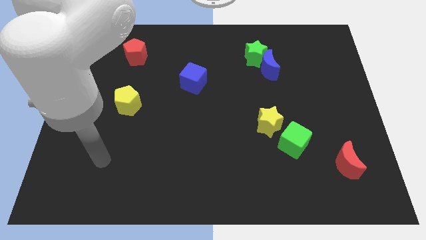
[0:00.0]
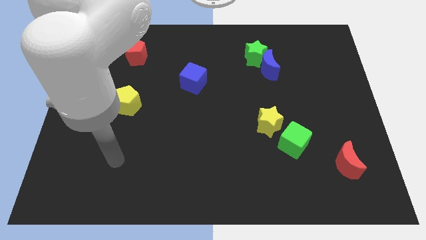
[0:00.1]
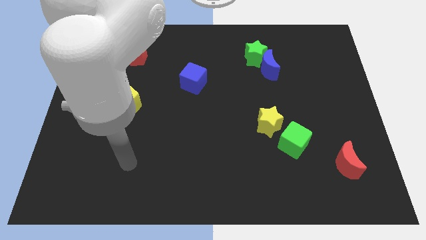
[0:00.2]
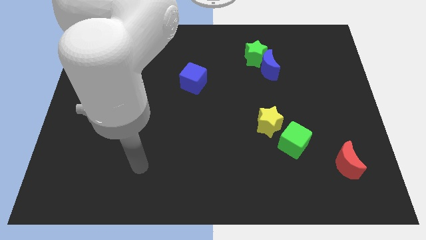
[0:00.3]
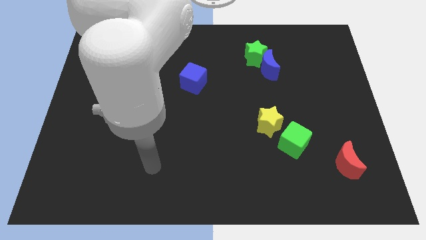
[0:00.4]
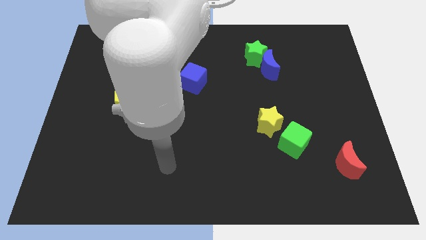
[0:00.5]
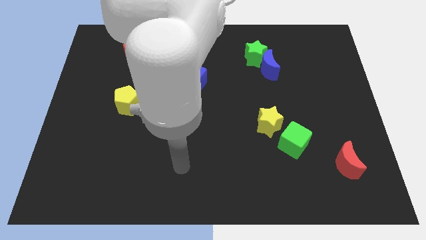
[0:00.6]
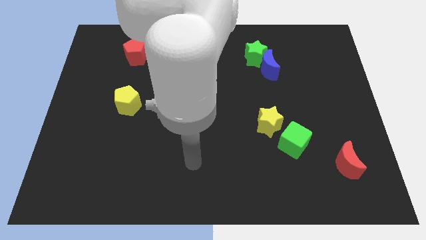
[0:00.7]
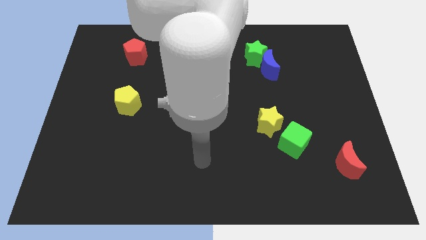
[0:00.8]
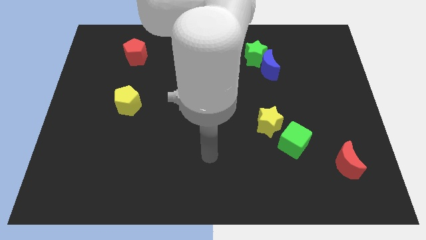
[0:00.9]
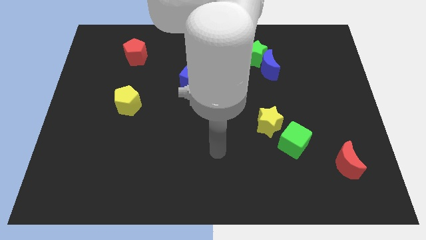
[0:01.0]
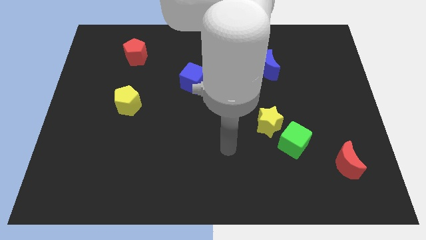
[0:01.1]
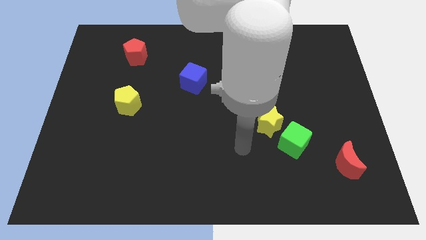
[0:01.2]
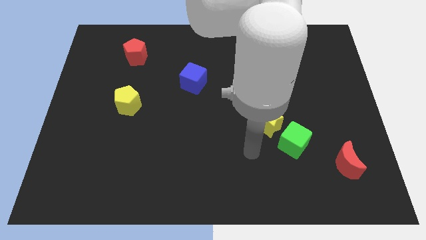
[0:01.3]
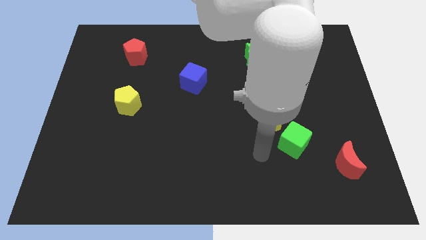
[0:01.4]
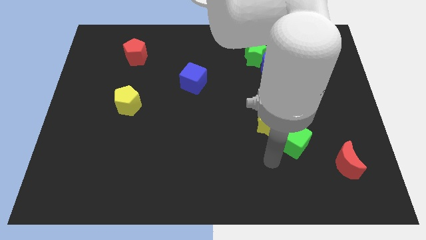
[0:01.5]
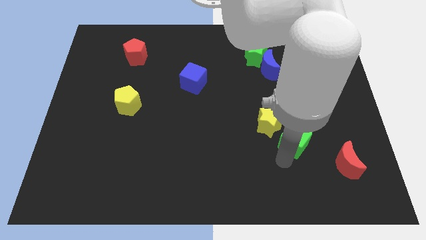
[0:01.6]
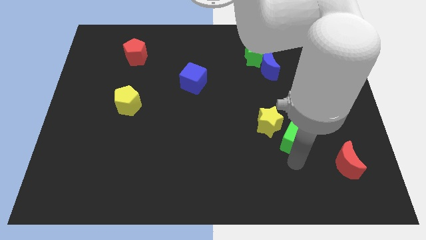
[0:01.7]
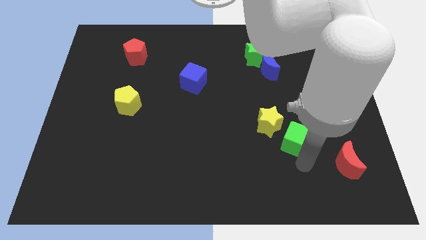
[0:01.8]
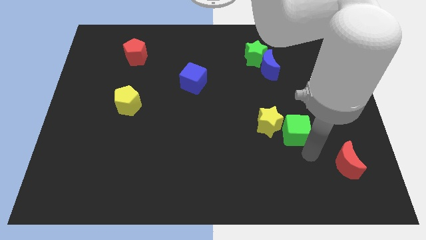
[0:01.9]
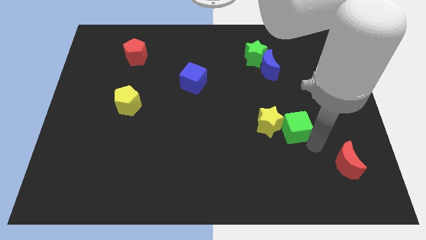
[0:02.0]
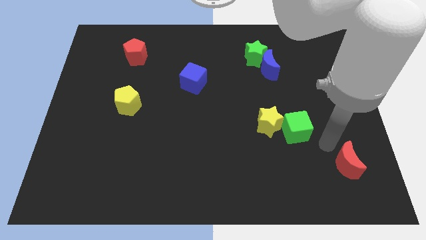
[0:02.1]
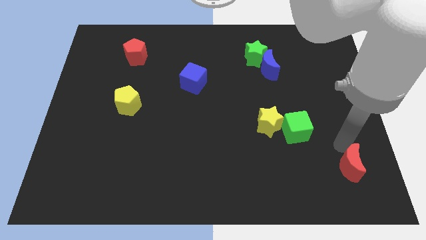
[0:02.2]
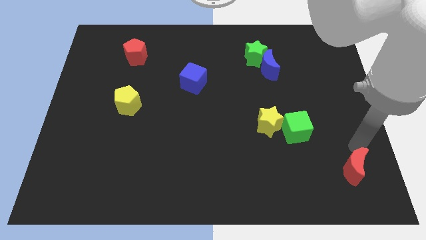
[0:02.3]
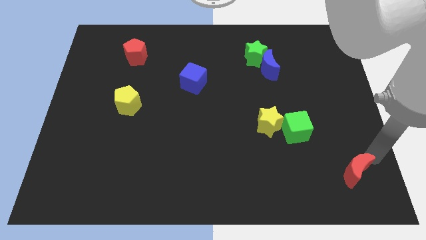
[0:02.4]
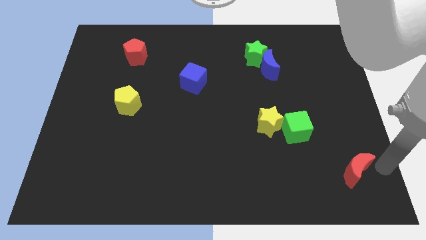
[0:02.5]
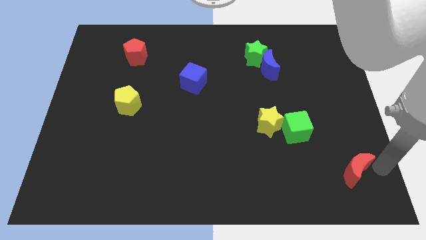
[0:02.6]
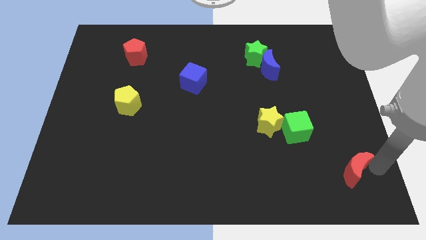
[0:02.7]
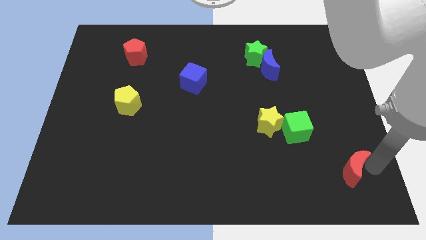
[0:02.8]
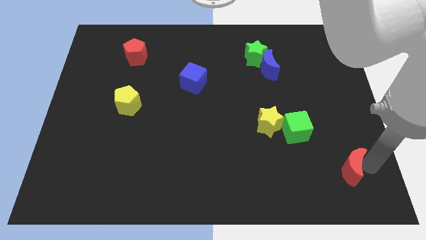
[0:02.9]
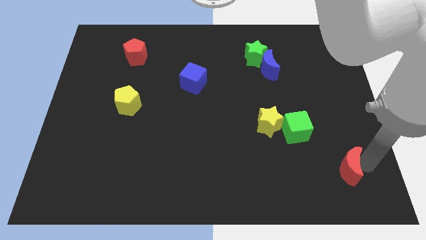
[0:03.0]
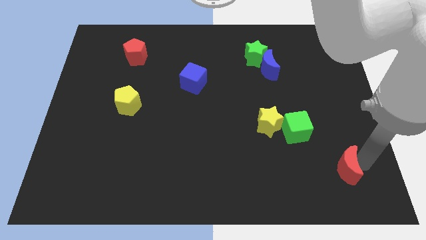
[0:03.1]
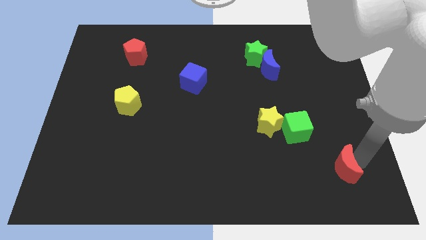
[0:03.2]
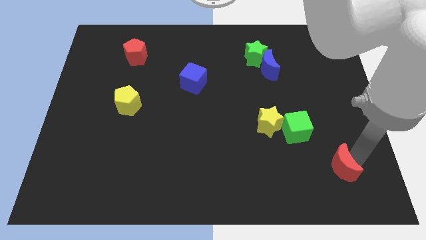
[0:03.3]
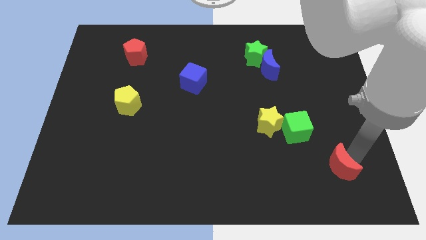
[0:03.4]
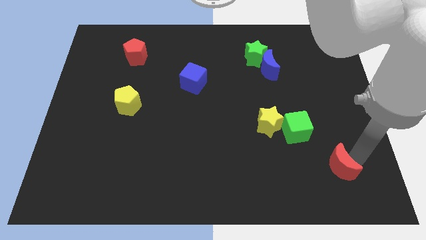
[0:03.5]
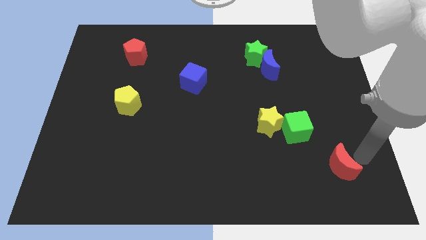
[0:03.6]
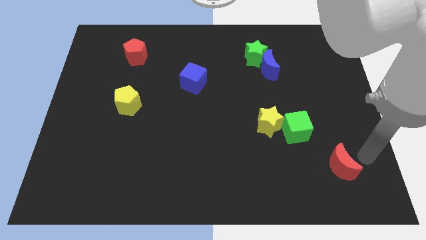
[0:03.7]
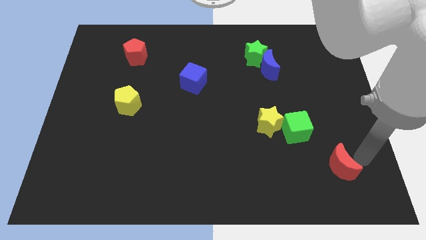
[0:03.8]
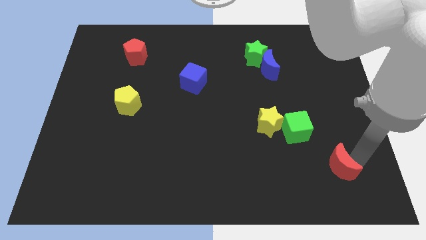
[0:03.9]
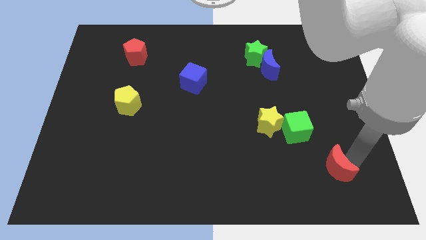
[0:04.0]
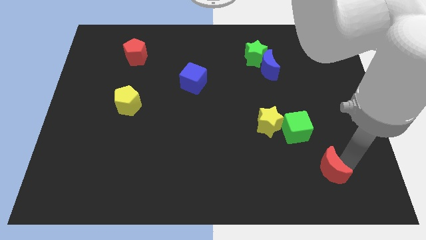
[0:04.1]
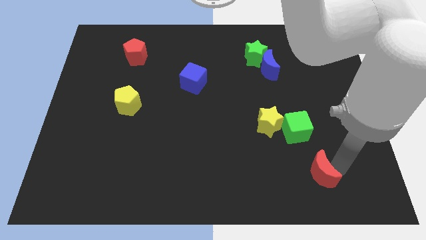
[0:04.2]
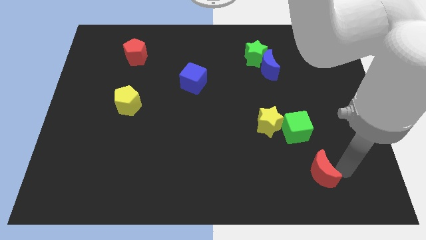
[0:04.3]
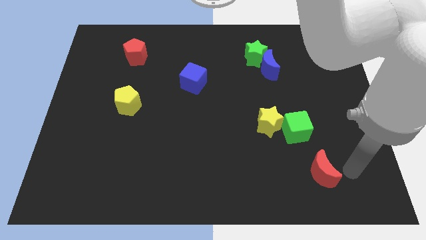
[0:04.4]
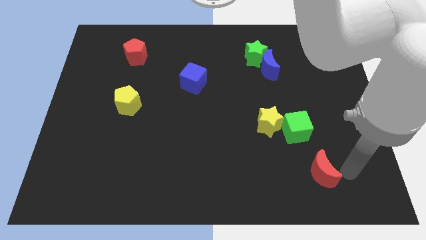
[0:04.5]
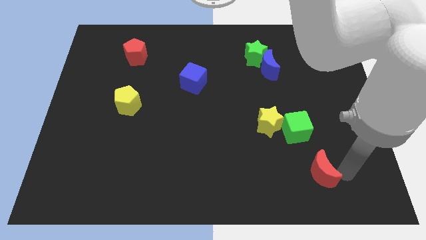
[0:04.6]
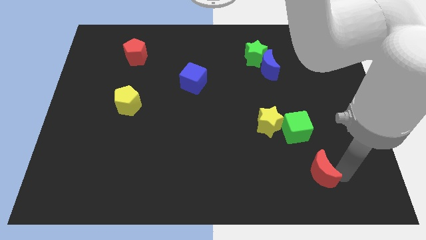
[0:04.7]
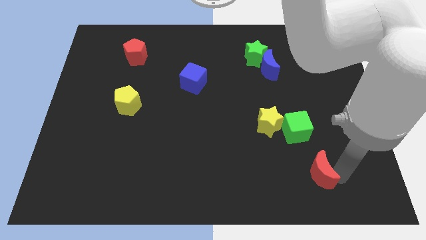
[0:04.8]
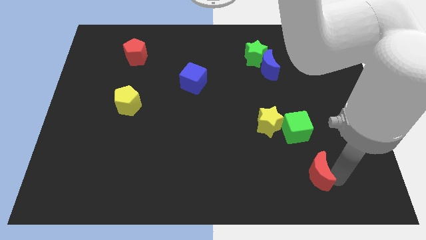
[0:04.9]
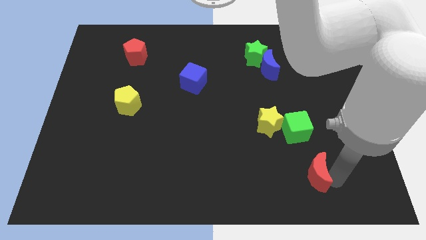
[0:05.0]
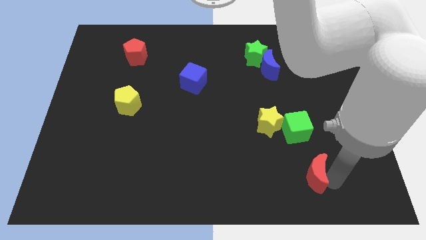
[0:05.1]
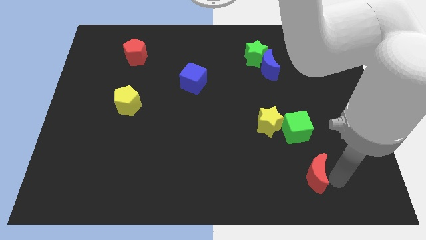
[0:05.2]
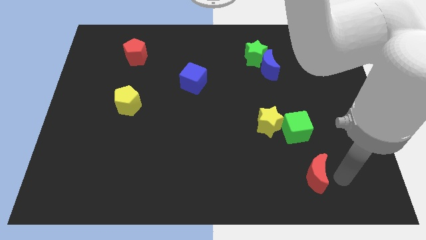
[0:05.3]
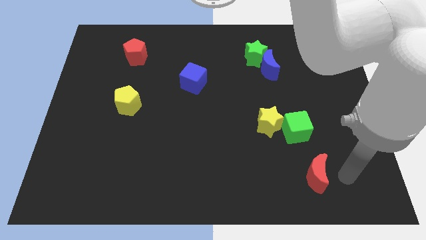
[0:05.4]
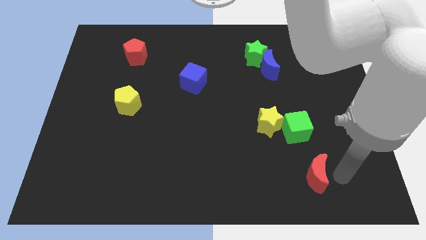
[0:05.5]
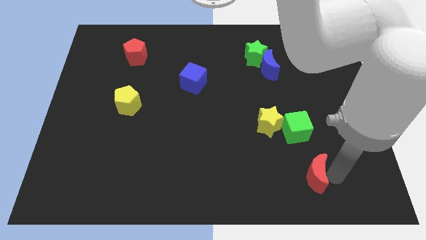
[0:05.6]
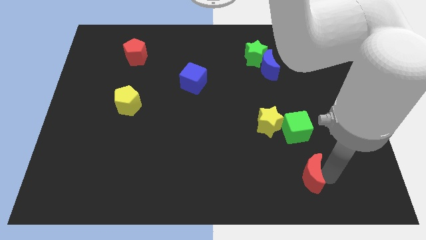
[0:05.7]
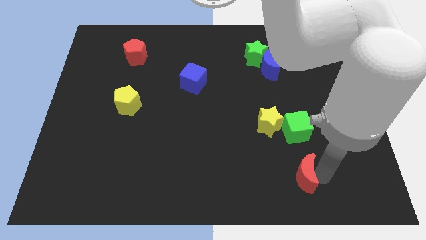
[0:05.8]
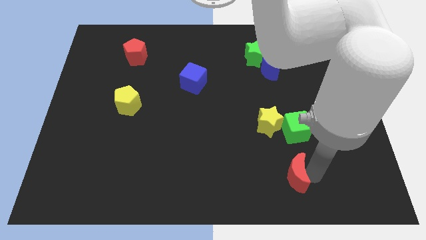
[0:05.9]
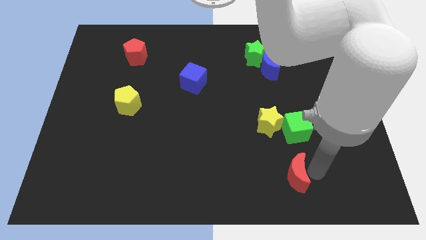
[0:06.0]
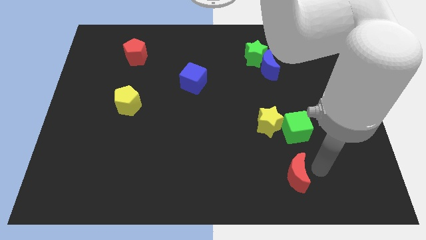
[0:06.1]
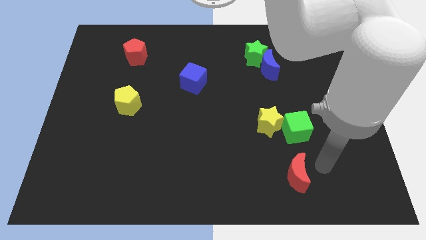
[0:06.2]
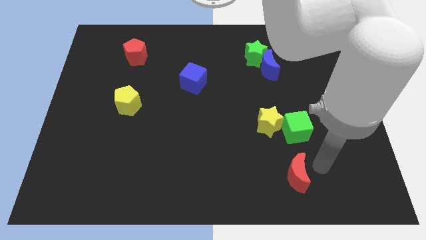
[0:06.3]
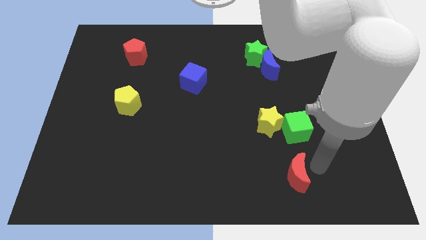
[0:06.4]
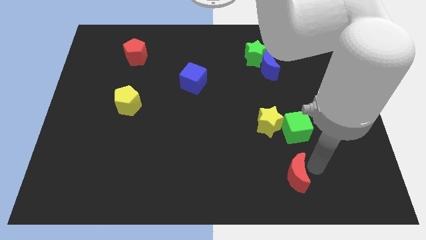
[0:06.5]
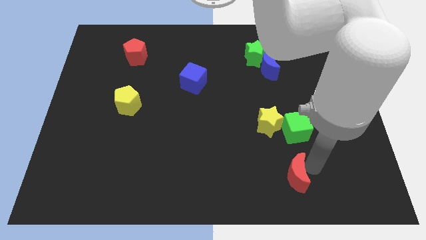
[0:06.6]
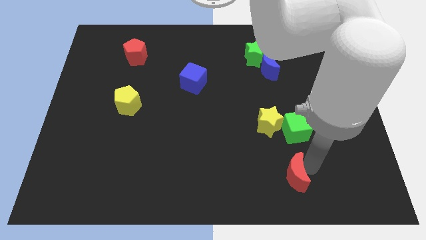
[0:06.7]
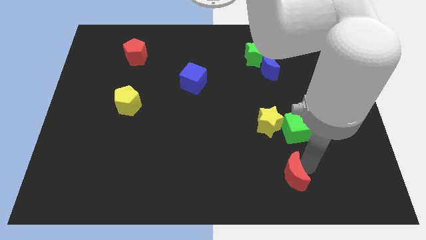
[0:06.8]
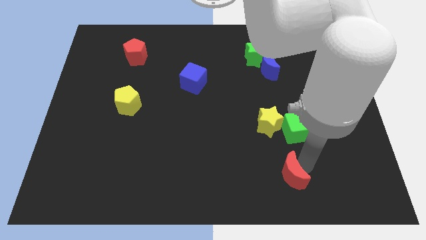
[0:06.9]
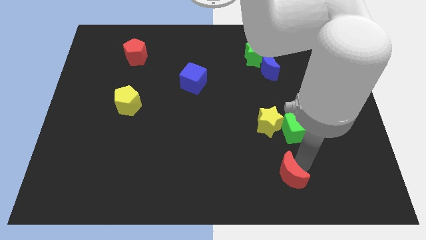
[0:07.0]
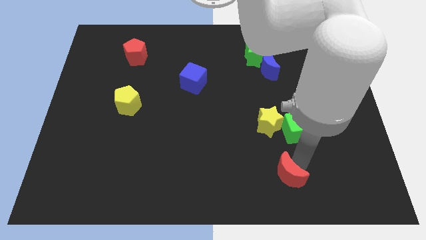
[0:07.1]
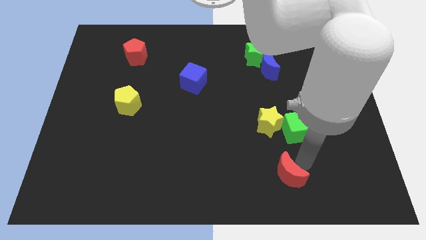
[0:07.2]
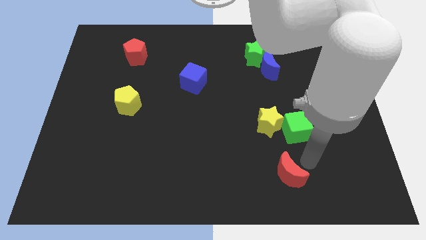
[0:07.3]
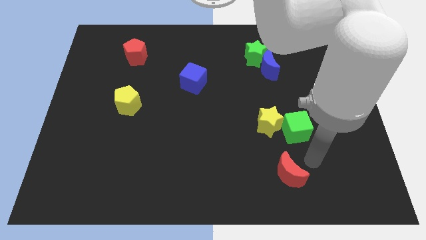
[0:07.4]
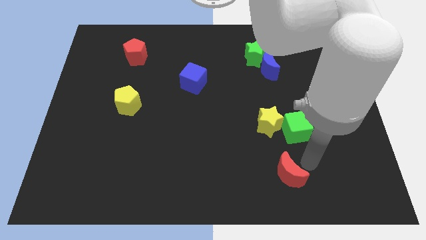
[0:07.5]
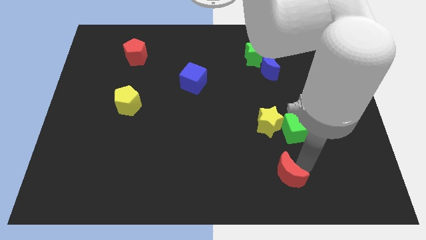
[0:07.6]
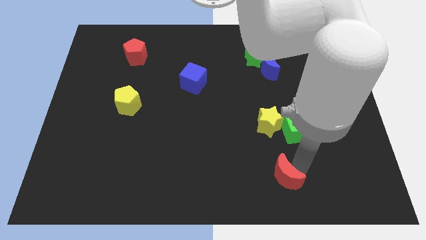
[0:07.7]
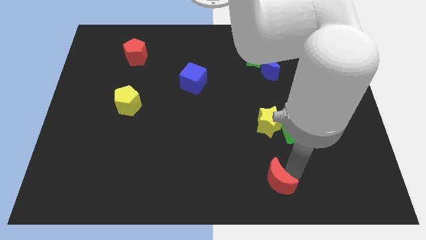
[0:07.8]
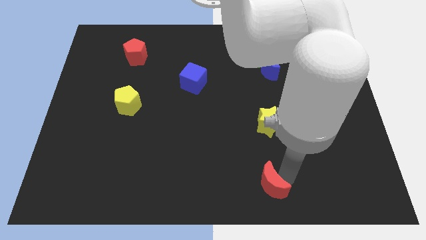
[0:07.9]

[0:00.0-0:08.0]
put the red moon to the bottom side
